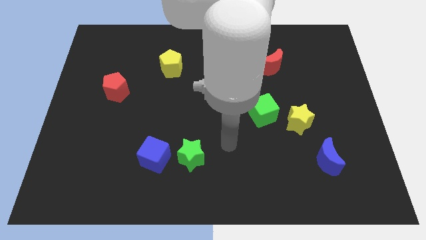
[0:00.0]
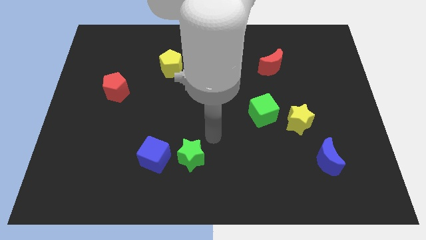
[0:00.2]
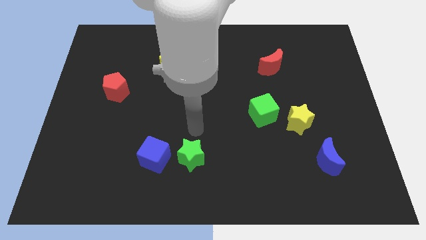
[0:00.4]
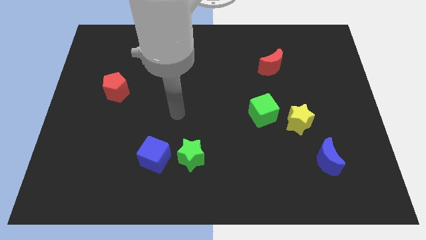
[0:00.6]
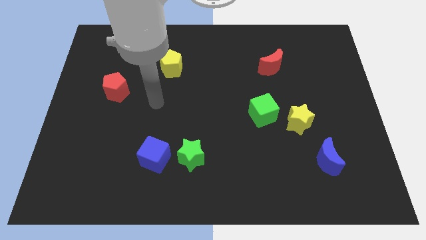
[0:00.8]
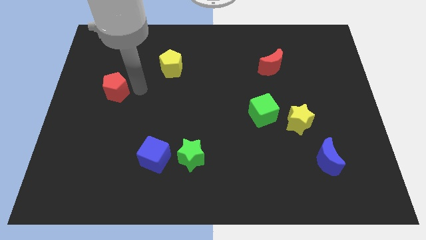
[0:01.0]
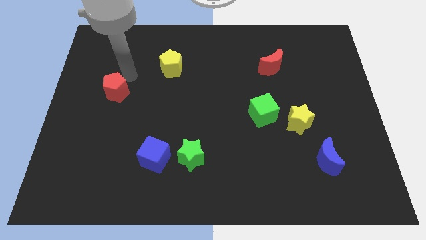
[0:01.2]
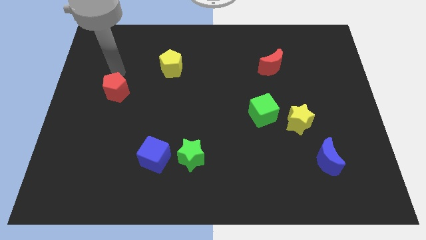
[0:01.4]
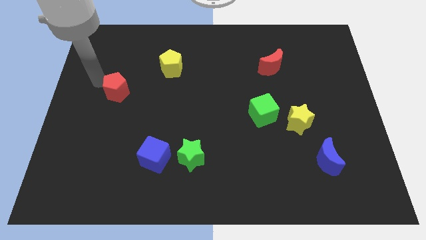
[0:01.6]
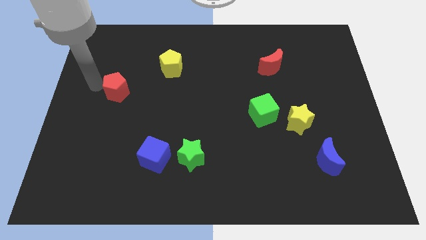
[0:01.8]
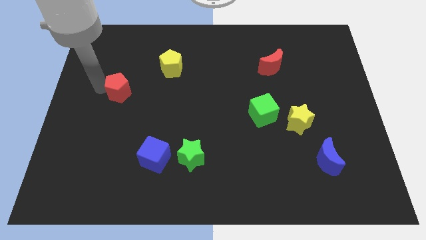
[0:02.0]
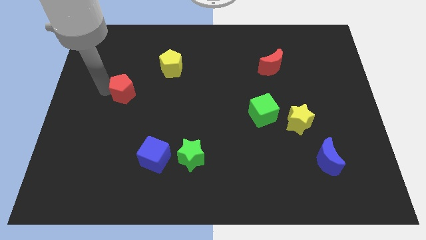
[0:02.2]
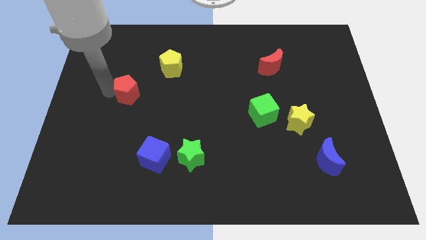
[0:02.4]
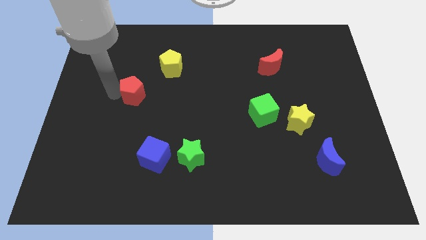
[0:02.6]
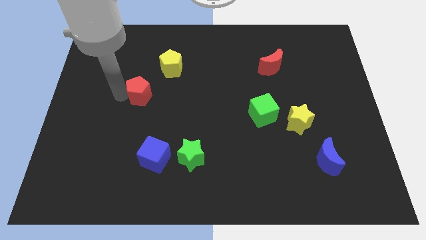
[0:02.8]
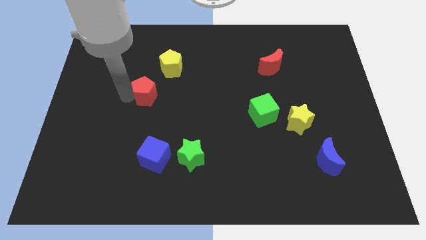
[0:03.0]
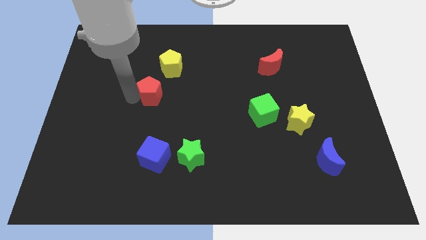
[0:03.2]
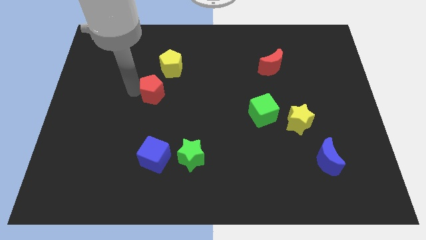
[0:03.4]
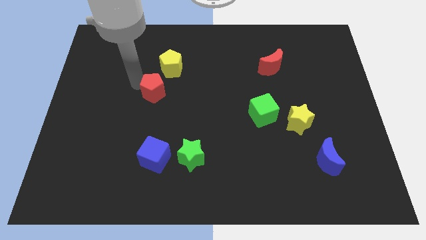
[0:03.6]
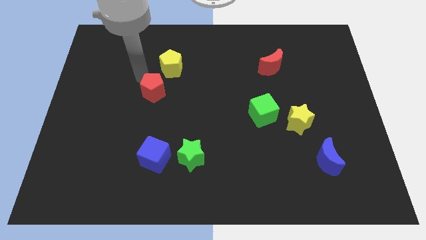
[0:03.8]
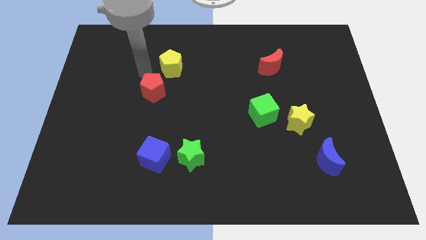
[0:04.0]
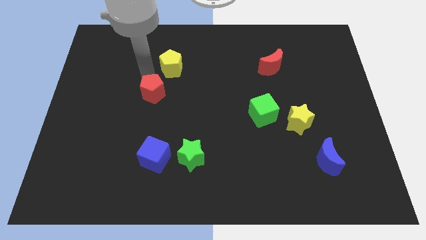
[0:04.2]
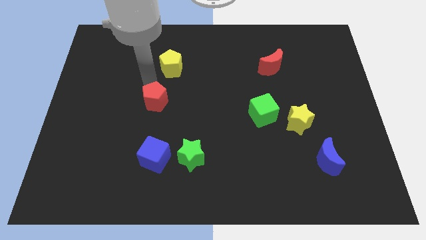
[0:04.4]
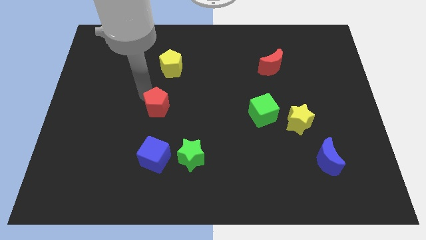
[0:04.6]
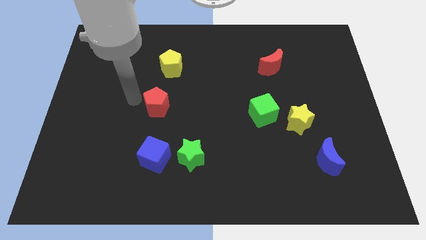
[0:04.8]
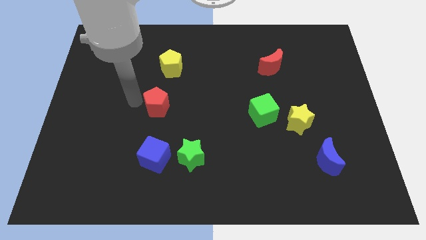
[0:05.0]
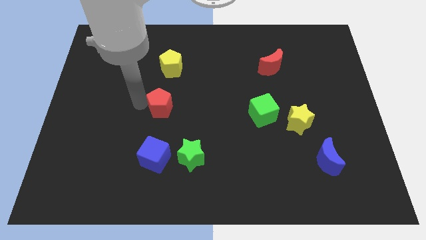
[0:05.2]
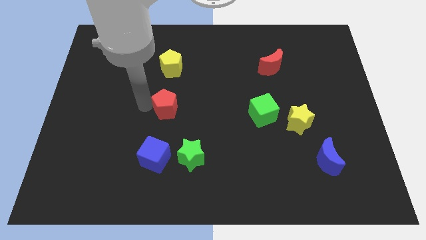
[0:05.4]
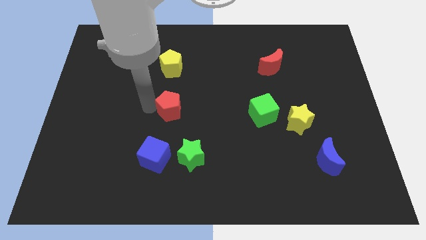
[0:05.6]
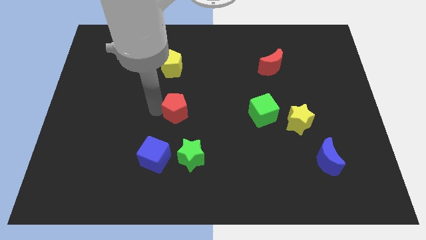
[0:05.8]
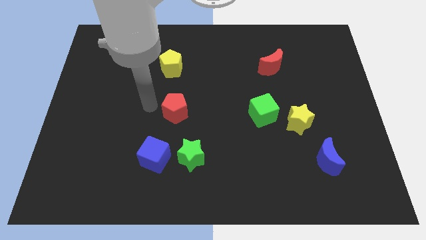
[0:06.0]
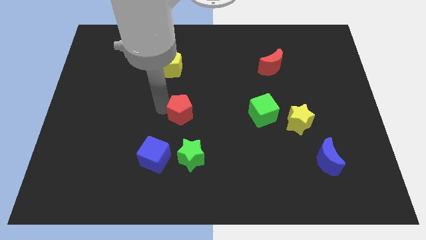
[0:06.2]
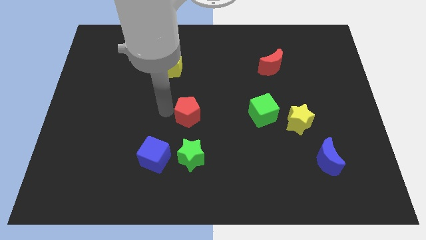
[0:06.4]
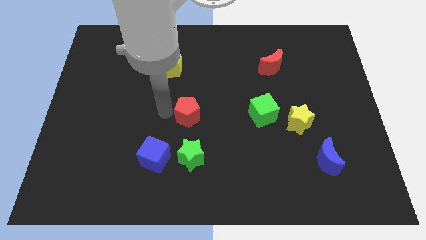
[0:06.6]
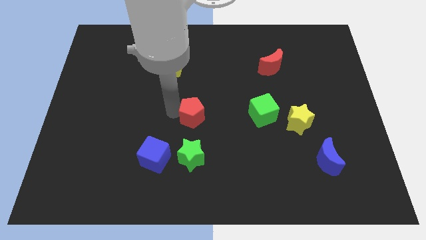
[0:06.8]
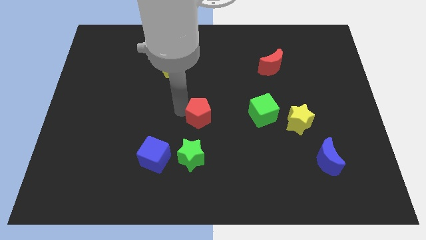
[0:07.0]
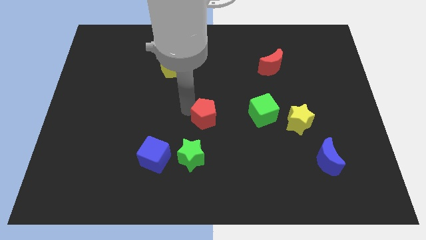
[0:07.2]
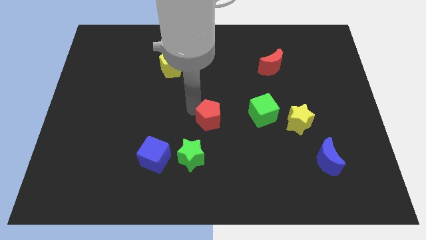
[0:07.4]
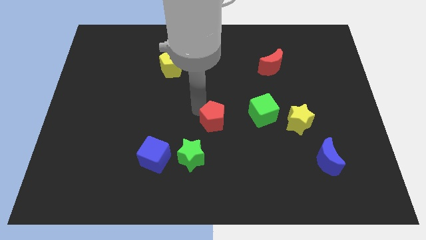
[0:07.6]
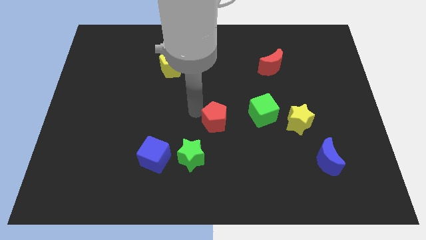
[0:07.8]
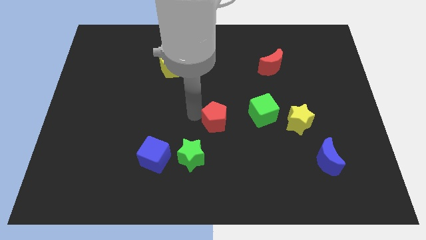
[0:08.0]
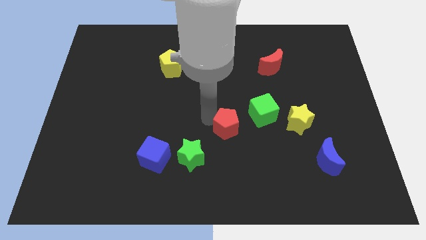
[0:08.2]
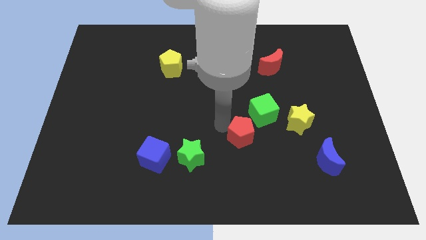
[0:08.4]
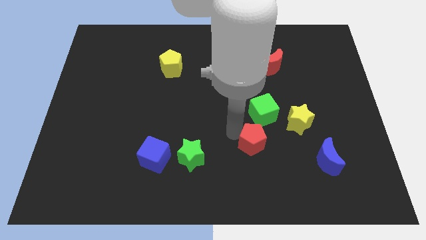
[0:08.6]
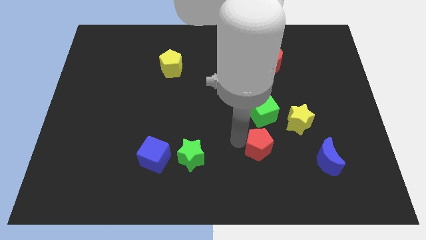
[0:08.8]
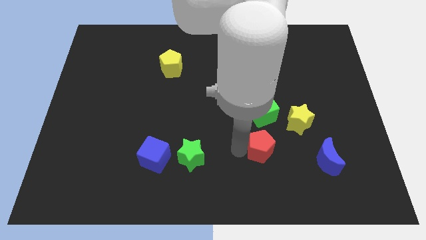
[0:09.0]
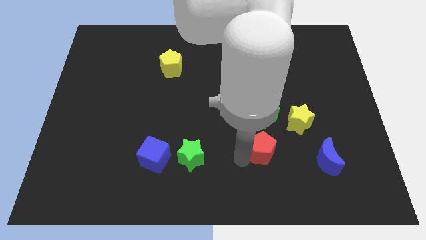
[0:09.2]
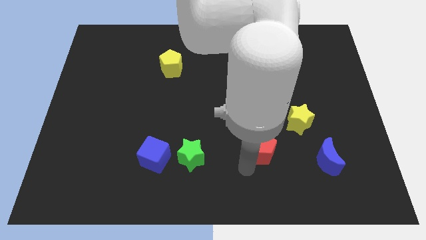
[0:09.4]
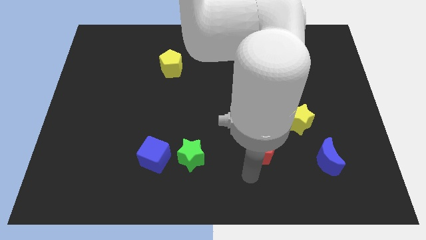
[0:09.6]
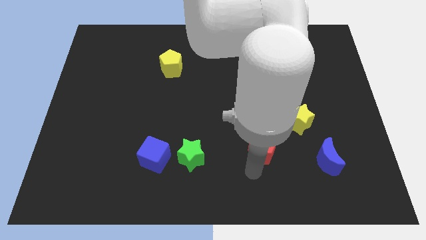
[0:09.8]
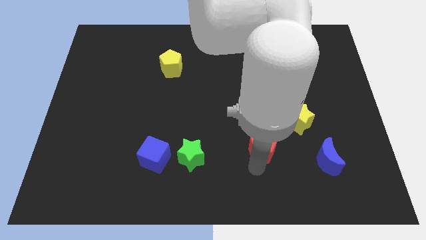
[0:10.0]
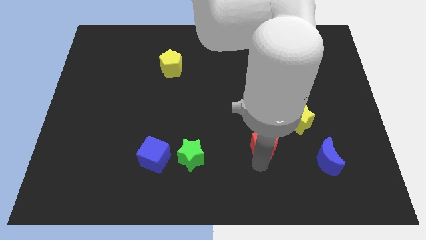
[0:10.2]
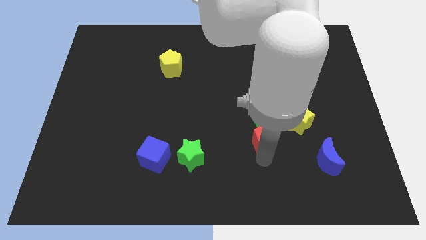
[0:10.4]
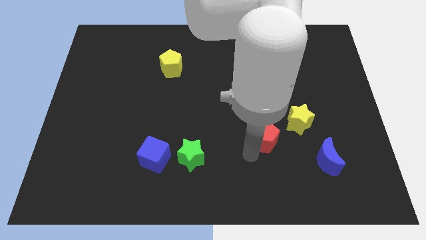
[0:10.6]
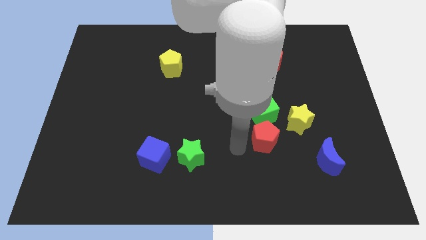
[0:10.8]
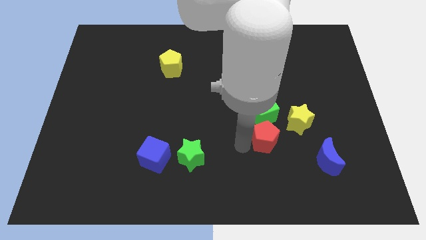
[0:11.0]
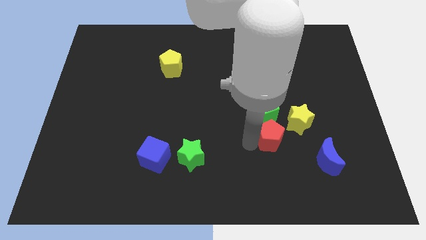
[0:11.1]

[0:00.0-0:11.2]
push the red pentagon to the bottom right side of the green cube

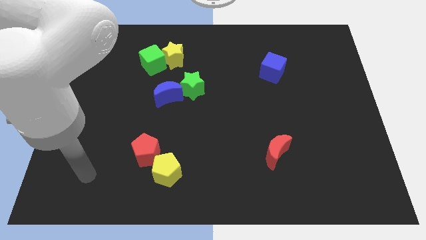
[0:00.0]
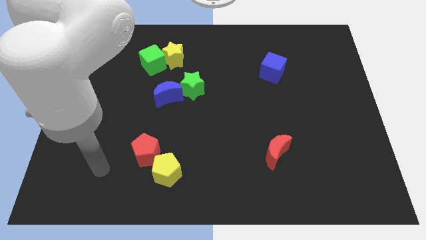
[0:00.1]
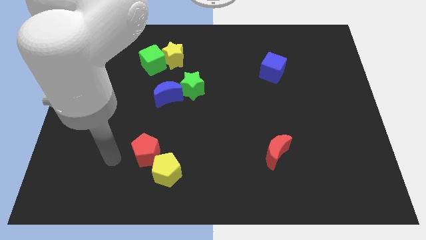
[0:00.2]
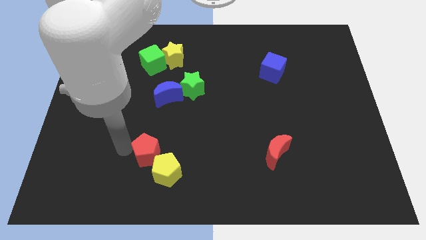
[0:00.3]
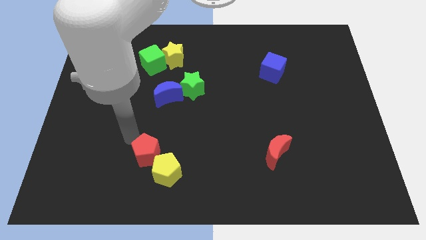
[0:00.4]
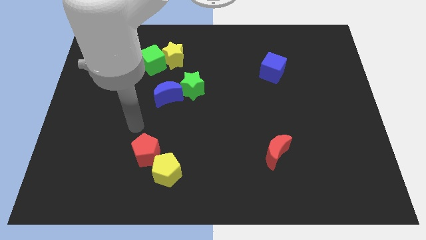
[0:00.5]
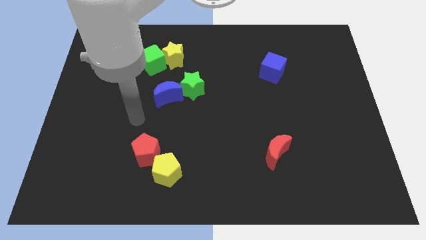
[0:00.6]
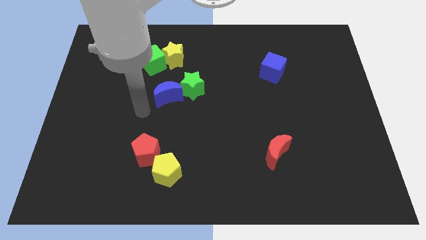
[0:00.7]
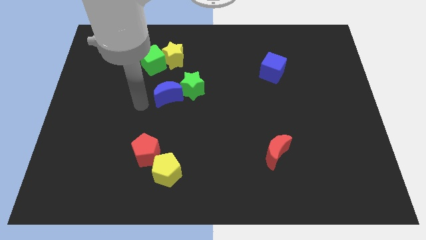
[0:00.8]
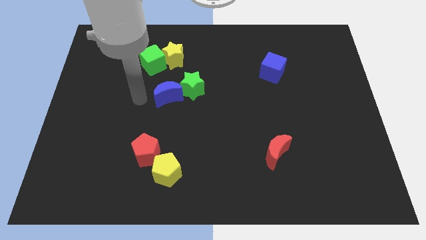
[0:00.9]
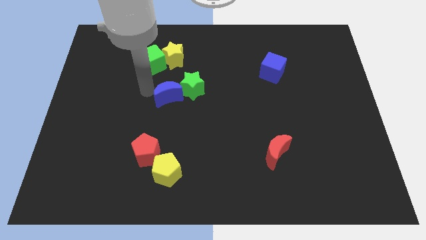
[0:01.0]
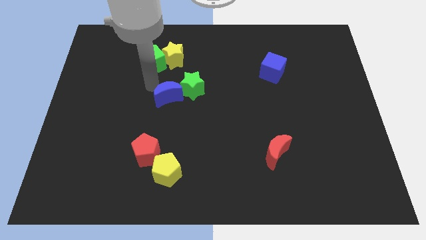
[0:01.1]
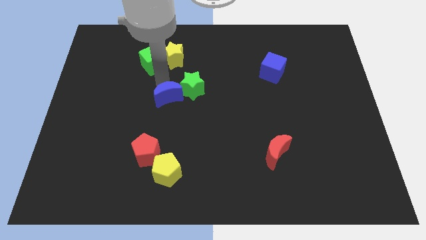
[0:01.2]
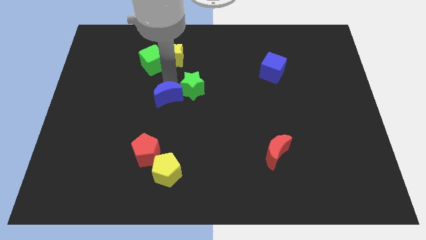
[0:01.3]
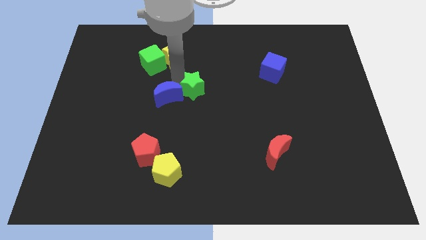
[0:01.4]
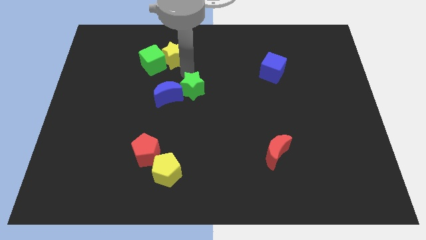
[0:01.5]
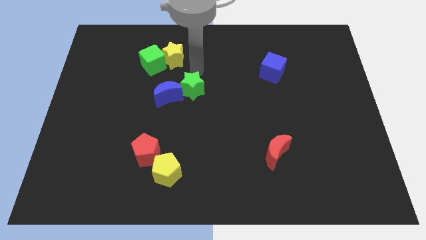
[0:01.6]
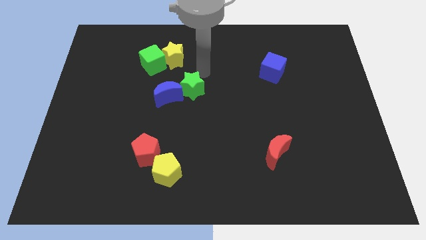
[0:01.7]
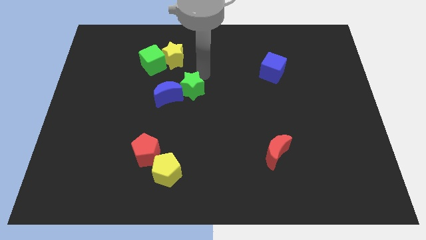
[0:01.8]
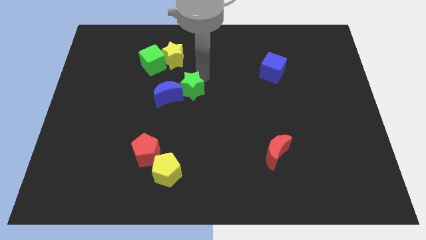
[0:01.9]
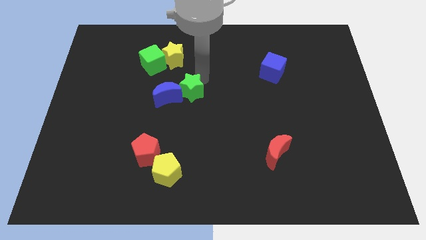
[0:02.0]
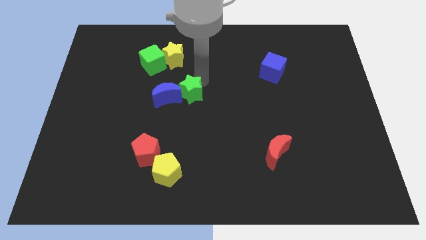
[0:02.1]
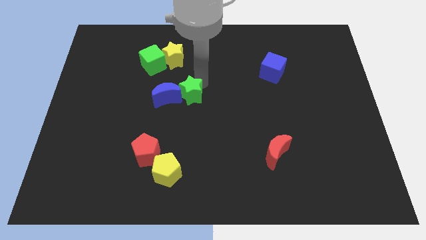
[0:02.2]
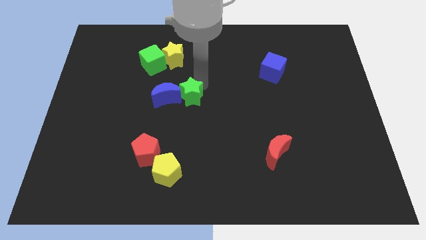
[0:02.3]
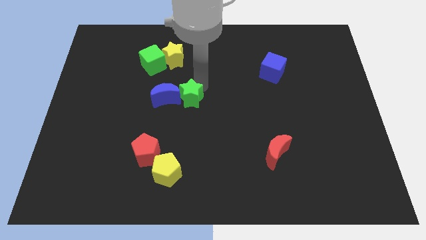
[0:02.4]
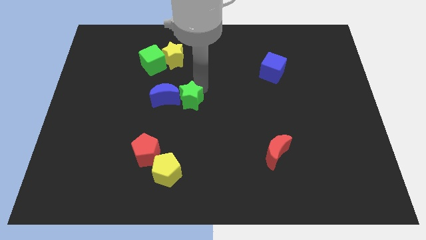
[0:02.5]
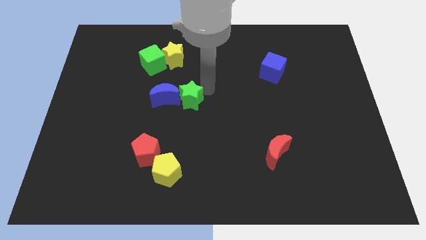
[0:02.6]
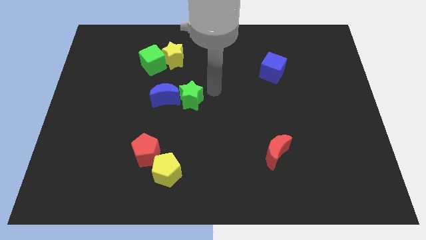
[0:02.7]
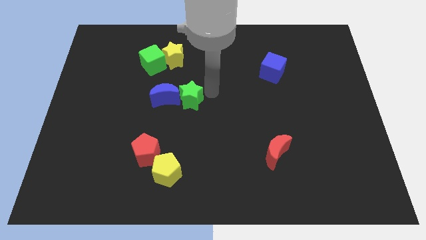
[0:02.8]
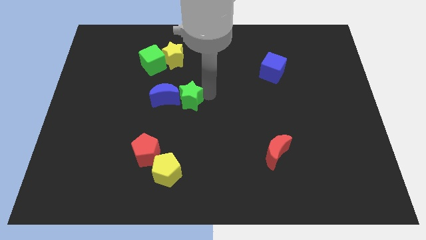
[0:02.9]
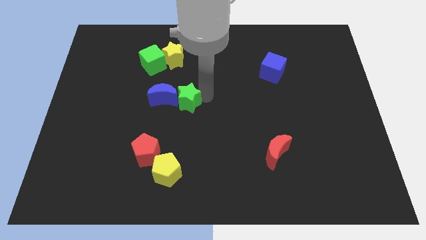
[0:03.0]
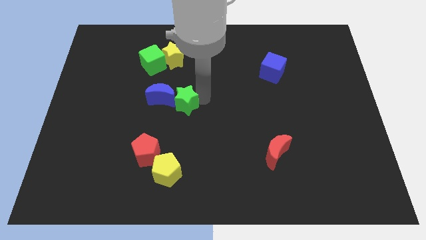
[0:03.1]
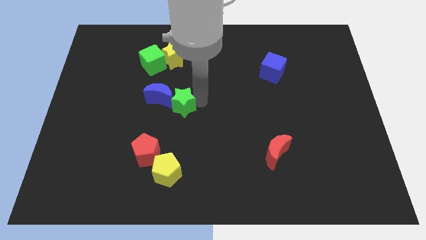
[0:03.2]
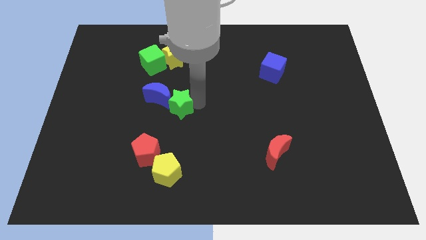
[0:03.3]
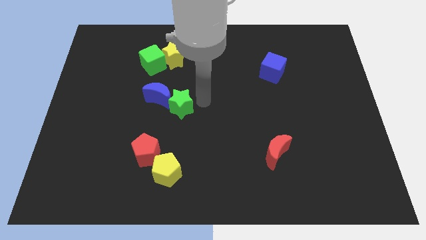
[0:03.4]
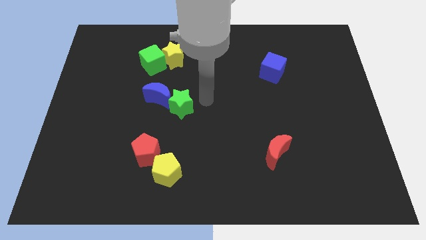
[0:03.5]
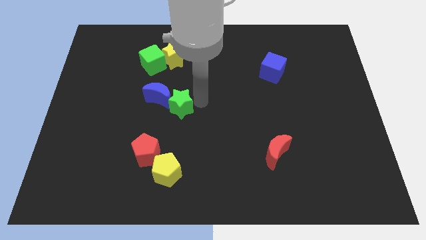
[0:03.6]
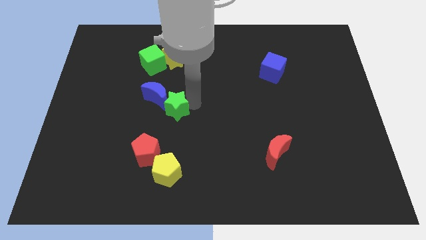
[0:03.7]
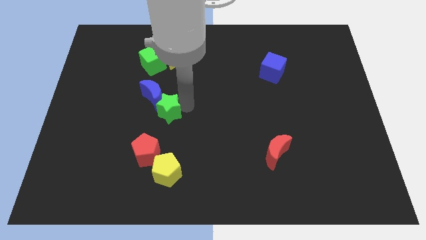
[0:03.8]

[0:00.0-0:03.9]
slide the green star to the top side of the red pentagon
